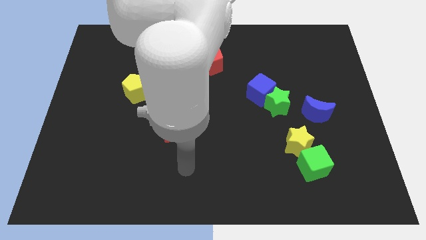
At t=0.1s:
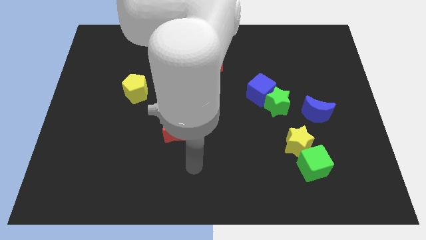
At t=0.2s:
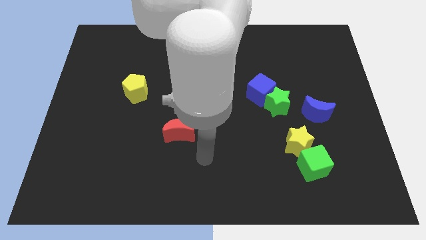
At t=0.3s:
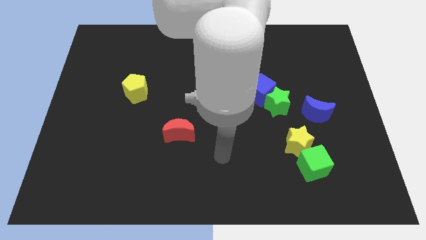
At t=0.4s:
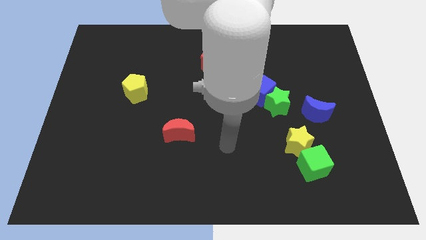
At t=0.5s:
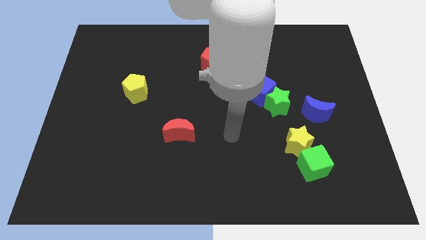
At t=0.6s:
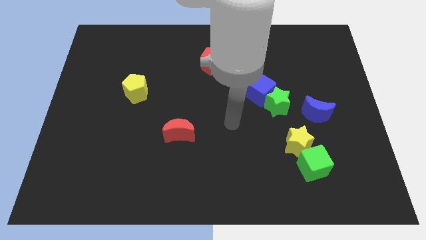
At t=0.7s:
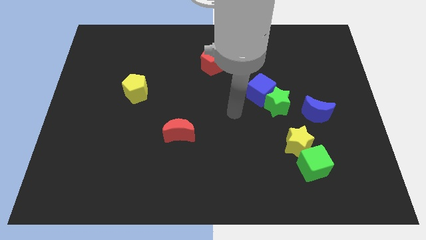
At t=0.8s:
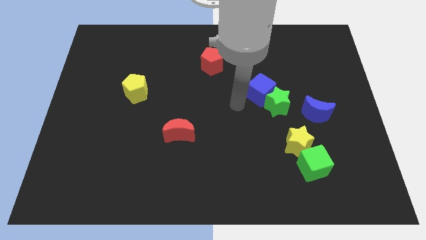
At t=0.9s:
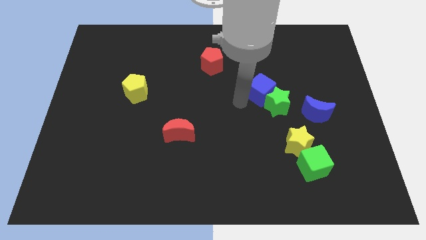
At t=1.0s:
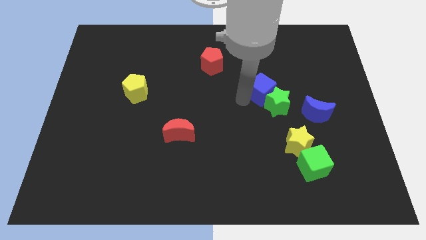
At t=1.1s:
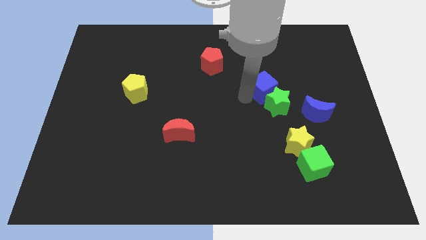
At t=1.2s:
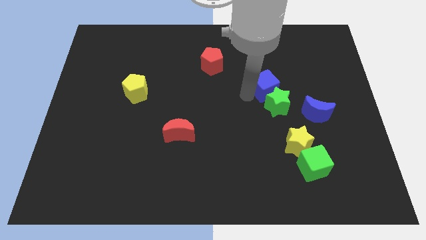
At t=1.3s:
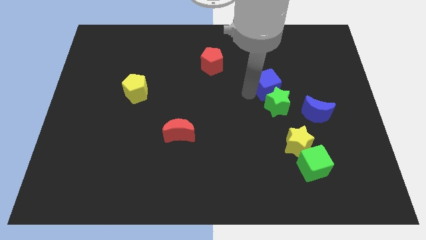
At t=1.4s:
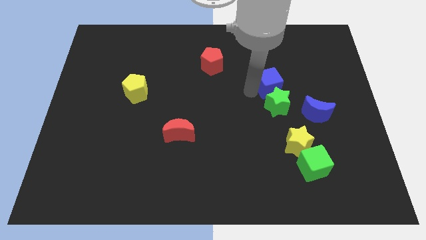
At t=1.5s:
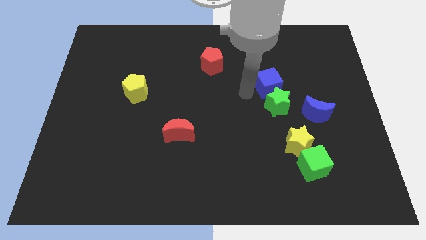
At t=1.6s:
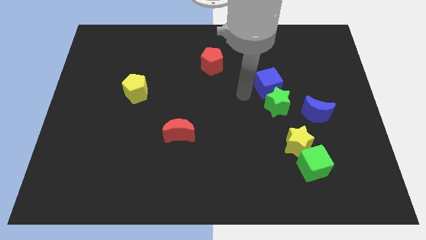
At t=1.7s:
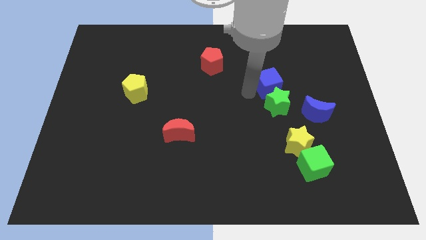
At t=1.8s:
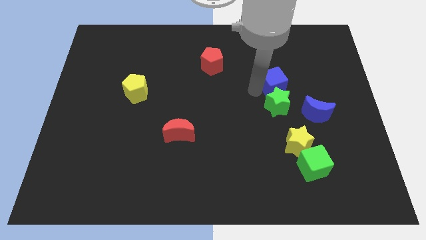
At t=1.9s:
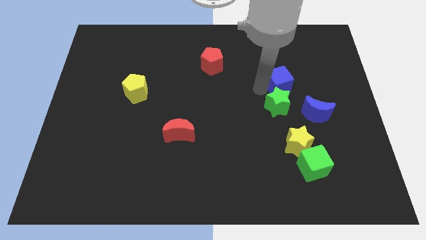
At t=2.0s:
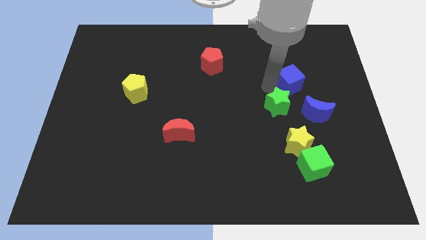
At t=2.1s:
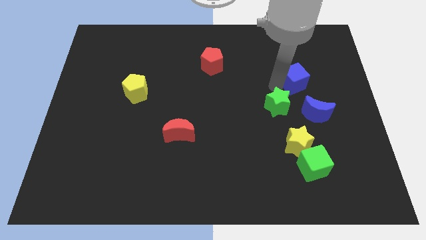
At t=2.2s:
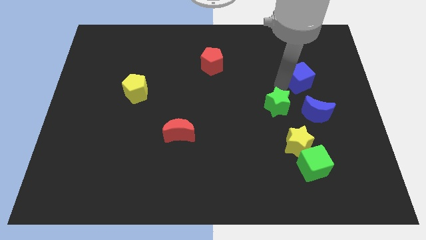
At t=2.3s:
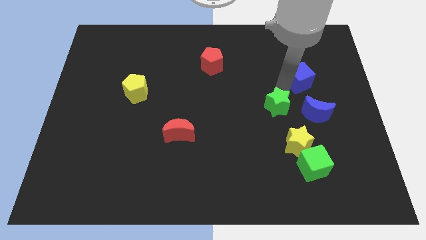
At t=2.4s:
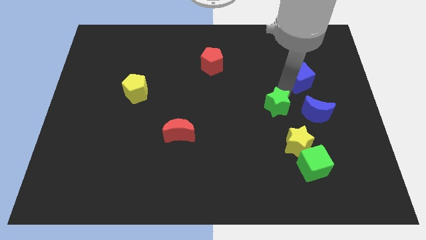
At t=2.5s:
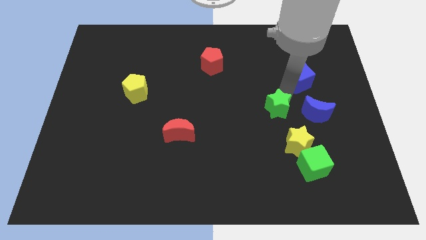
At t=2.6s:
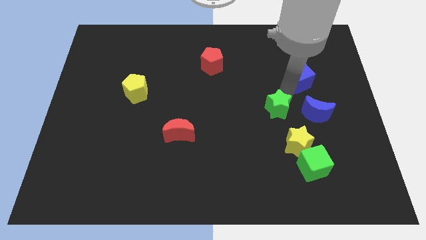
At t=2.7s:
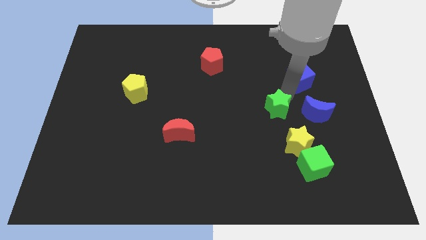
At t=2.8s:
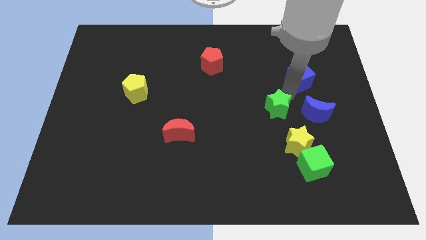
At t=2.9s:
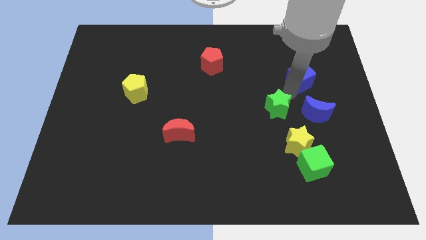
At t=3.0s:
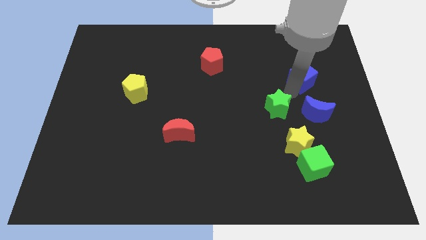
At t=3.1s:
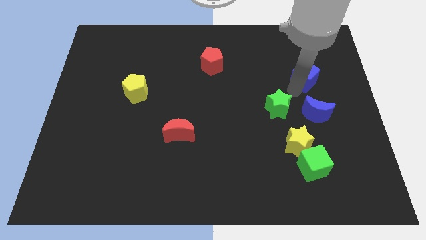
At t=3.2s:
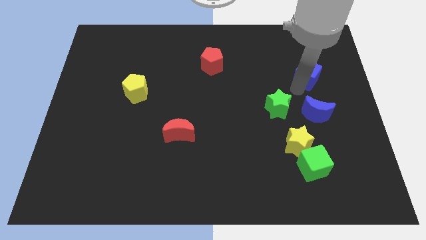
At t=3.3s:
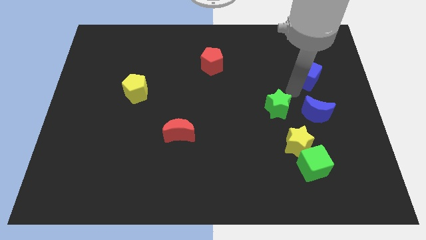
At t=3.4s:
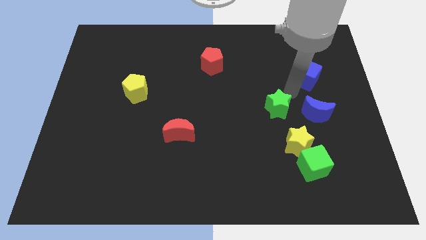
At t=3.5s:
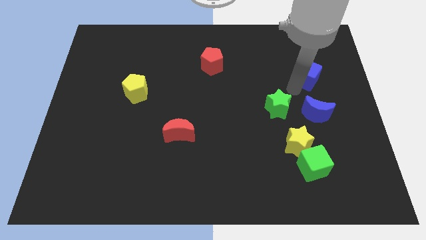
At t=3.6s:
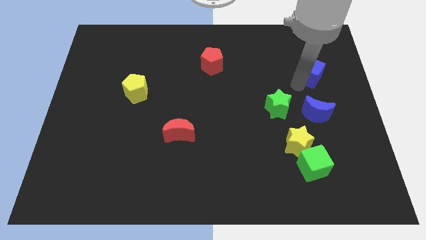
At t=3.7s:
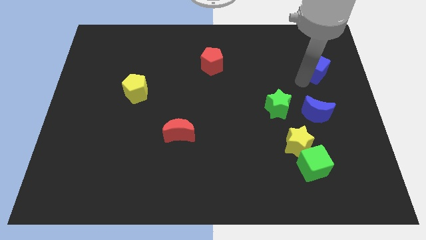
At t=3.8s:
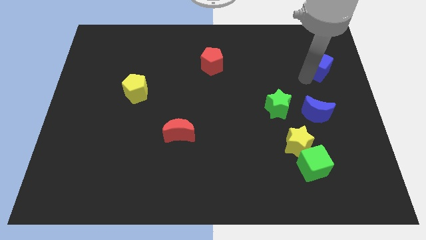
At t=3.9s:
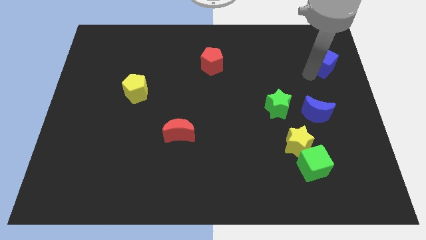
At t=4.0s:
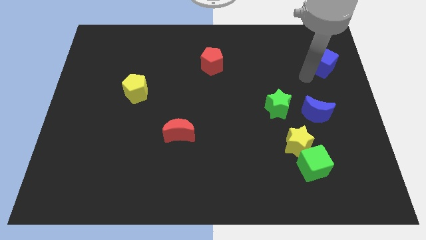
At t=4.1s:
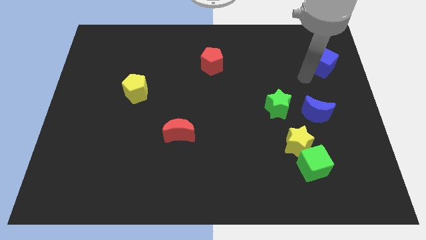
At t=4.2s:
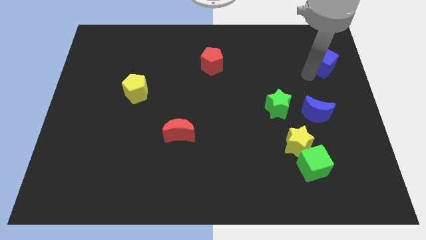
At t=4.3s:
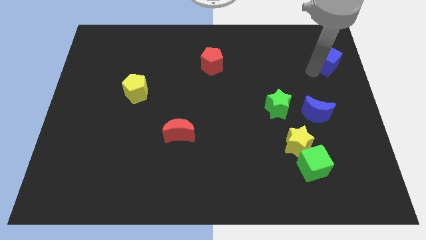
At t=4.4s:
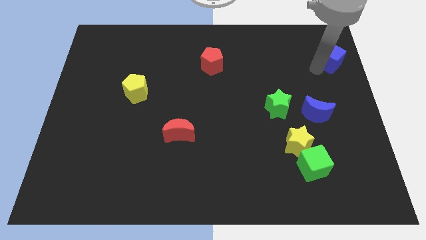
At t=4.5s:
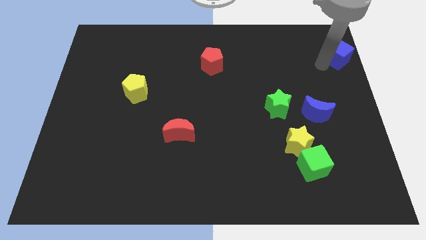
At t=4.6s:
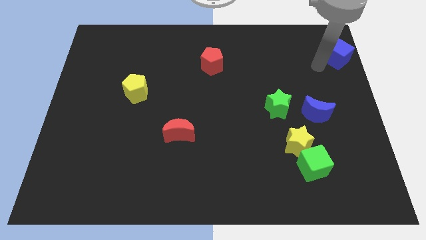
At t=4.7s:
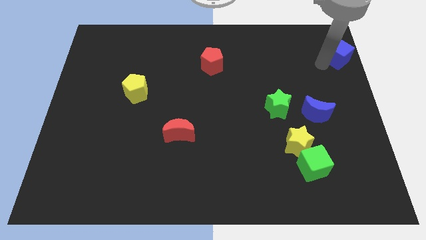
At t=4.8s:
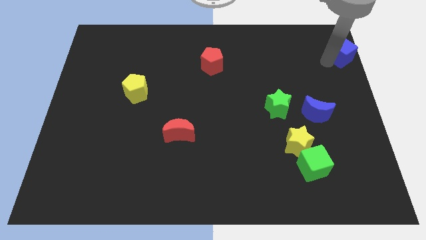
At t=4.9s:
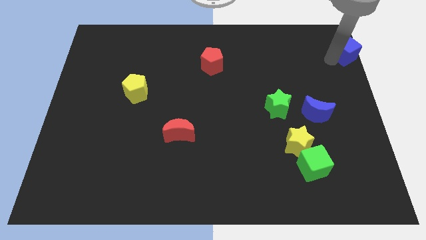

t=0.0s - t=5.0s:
slide the blue cube to the top right of the board

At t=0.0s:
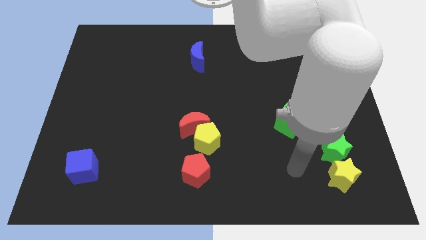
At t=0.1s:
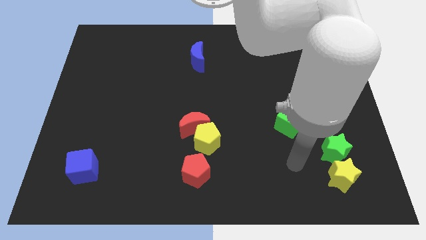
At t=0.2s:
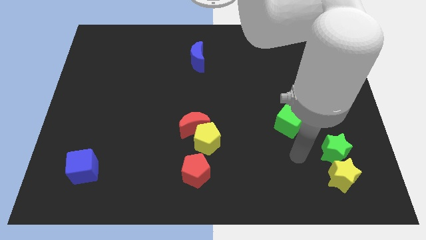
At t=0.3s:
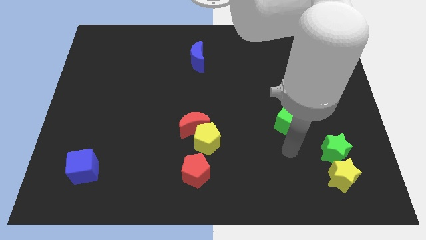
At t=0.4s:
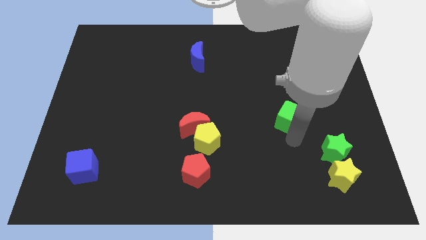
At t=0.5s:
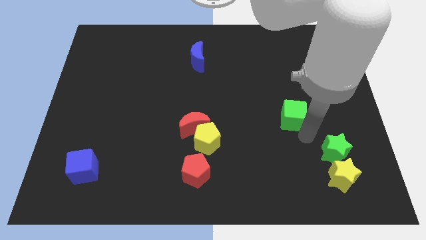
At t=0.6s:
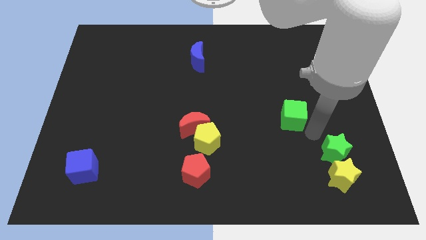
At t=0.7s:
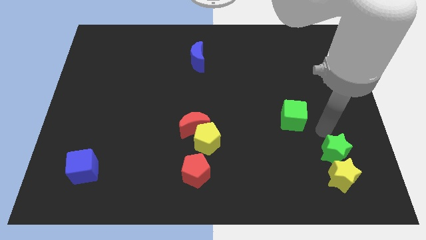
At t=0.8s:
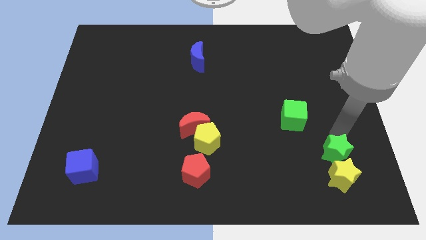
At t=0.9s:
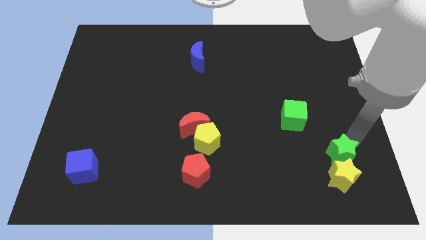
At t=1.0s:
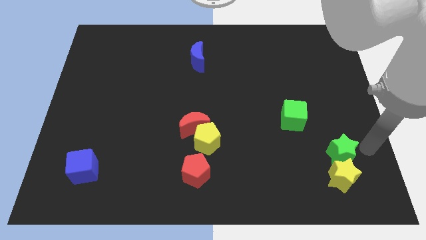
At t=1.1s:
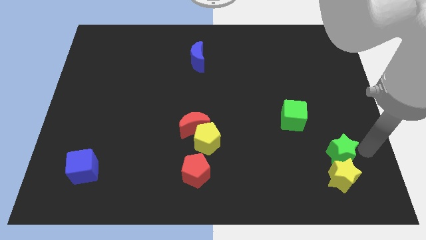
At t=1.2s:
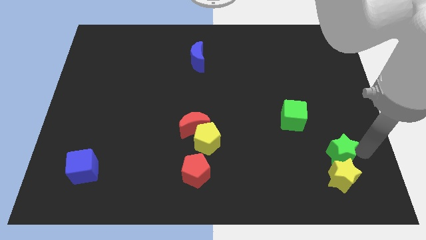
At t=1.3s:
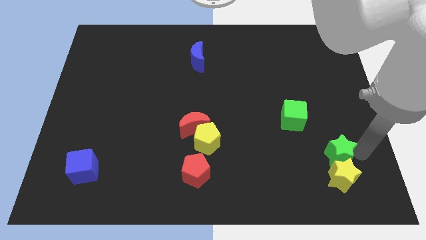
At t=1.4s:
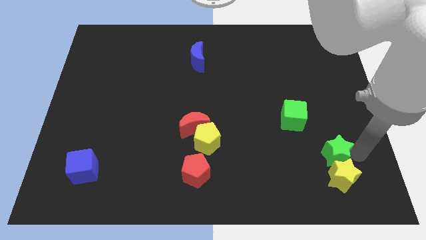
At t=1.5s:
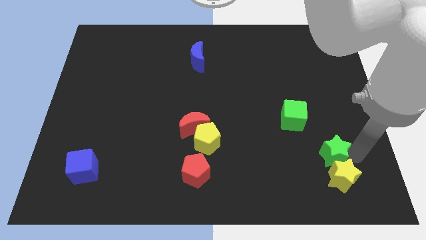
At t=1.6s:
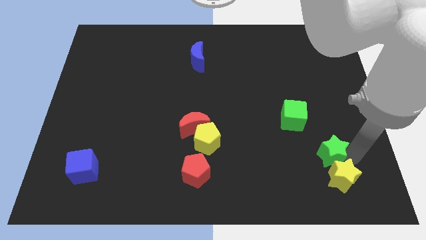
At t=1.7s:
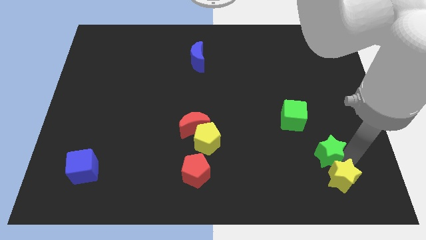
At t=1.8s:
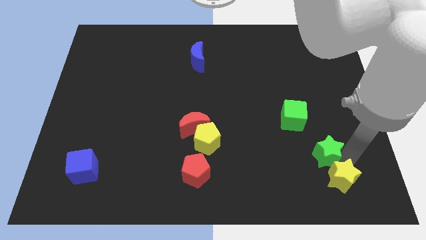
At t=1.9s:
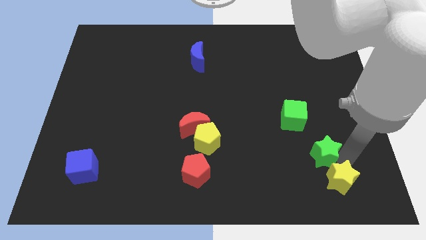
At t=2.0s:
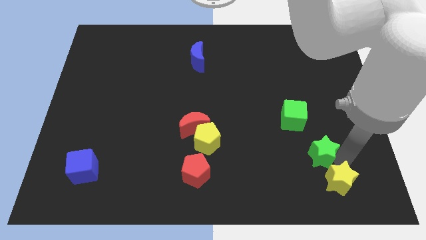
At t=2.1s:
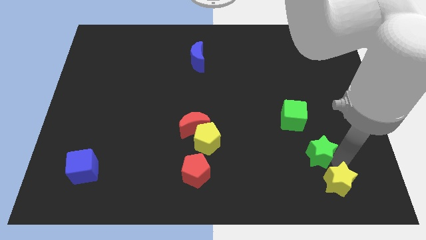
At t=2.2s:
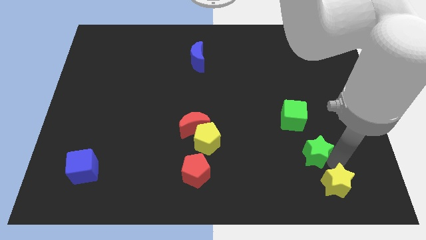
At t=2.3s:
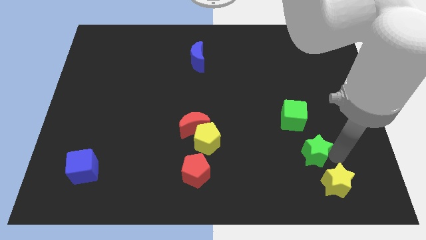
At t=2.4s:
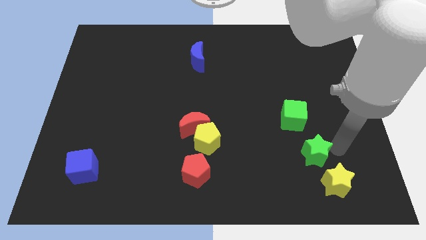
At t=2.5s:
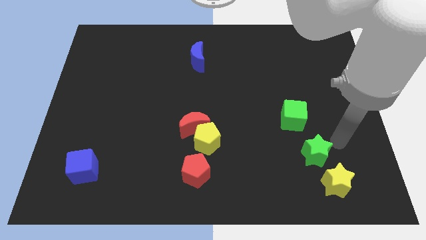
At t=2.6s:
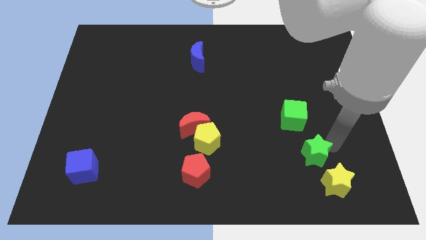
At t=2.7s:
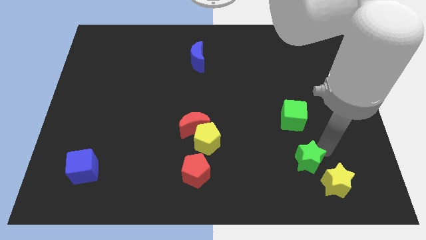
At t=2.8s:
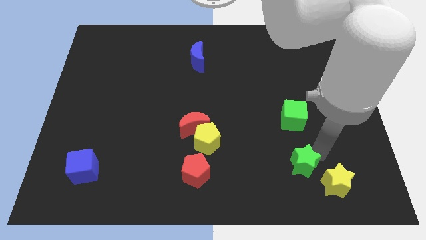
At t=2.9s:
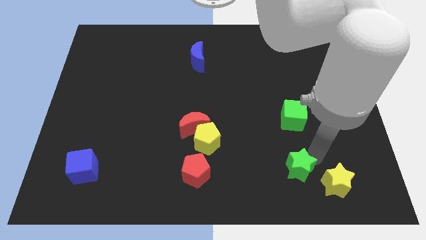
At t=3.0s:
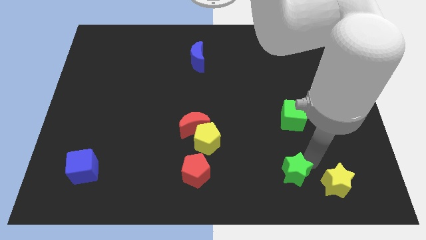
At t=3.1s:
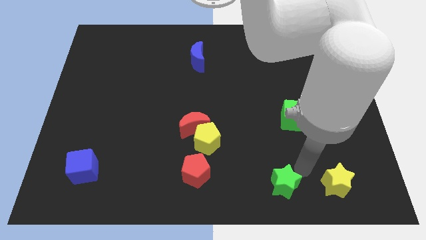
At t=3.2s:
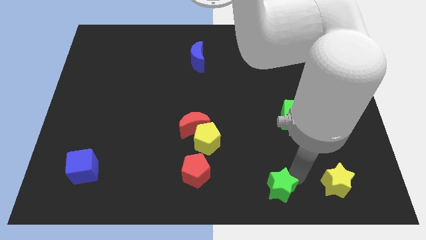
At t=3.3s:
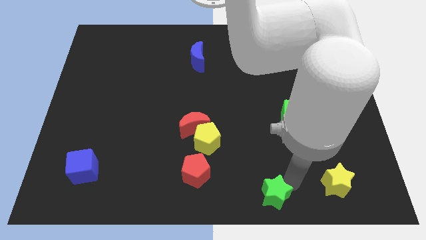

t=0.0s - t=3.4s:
push the green star to the bottom side
